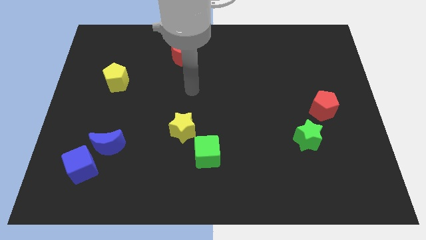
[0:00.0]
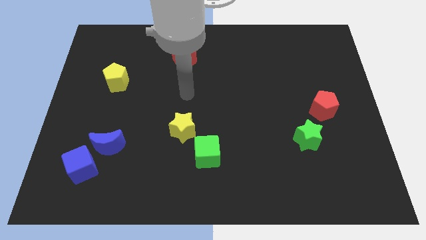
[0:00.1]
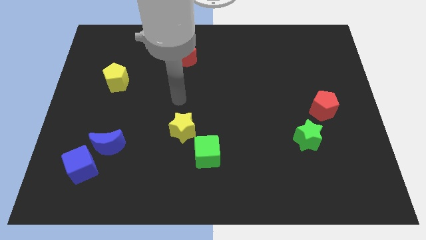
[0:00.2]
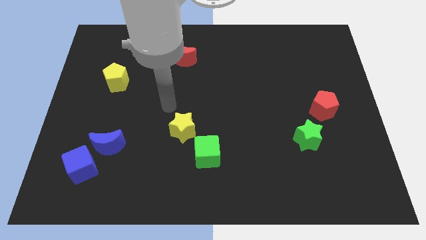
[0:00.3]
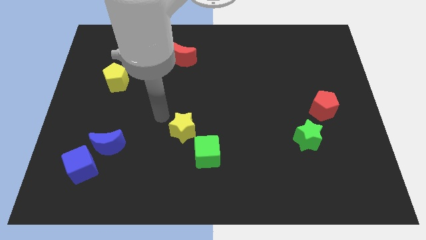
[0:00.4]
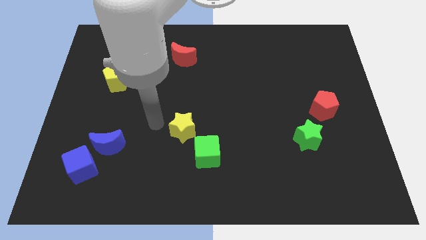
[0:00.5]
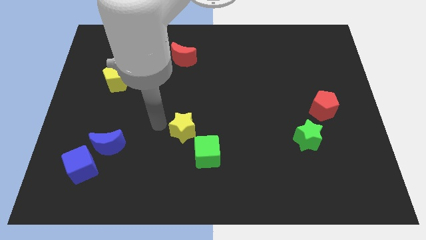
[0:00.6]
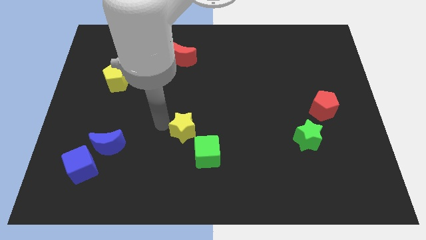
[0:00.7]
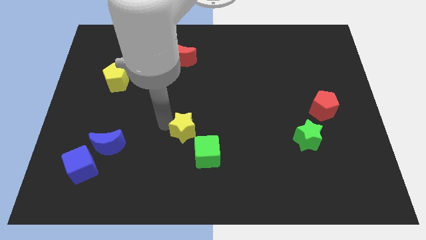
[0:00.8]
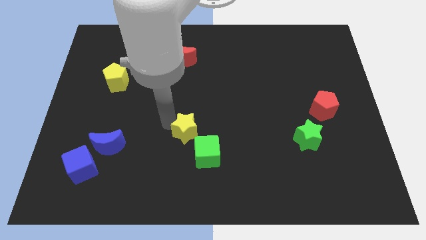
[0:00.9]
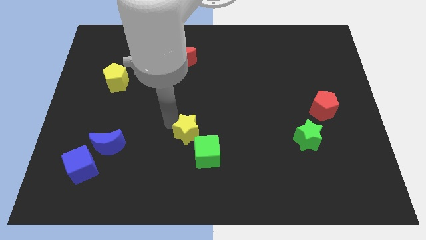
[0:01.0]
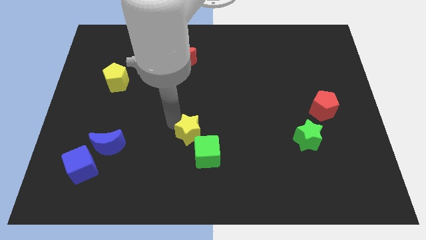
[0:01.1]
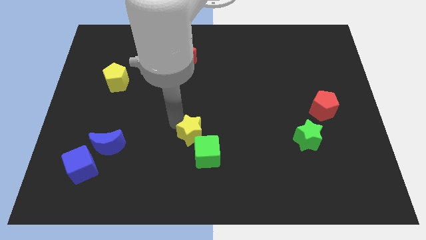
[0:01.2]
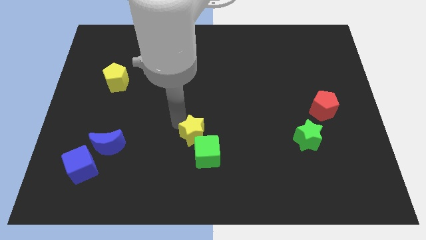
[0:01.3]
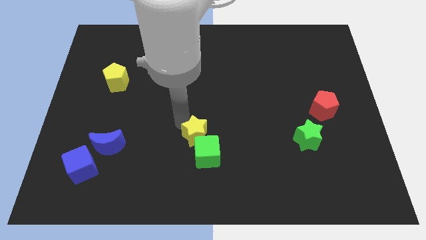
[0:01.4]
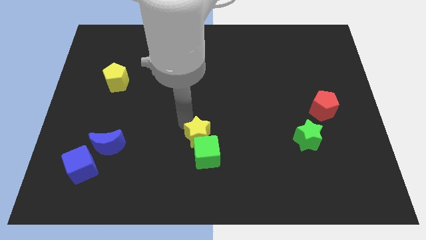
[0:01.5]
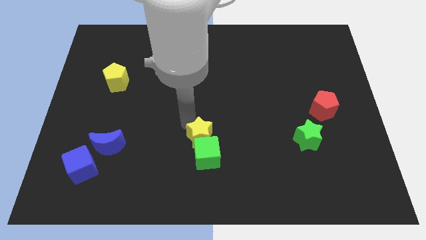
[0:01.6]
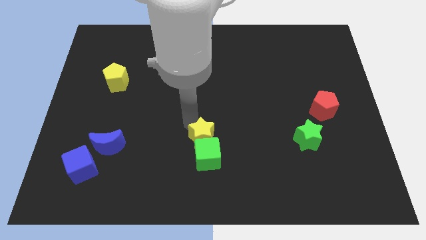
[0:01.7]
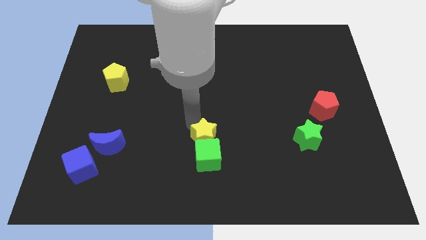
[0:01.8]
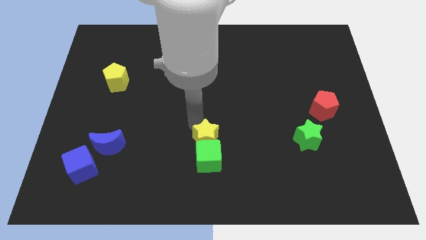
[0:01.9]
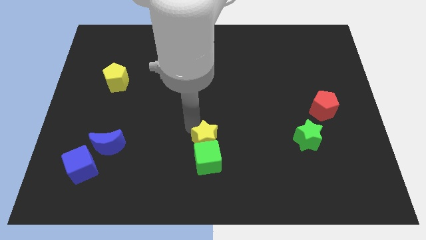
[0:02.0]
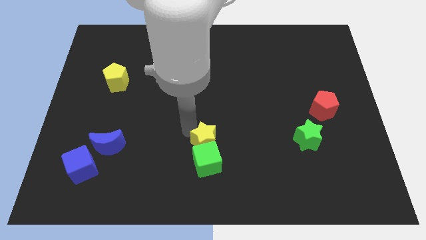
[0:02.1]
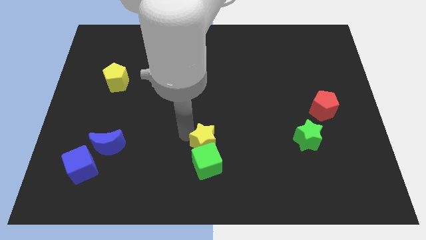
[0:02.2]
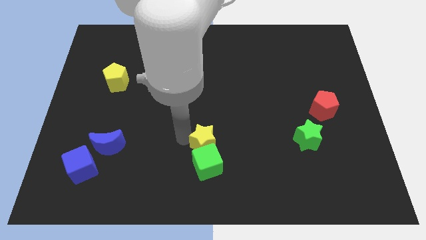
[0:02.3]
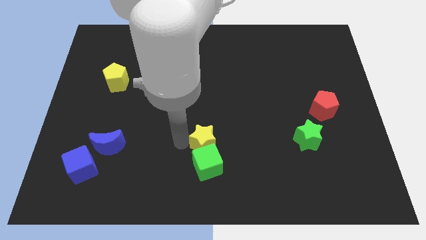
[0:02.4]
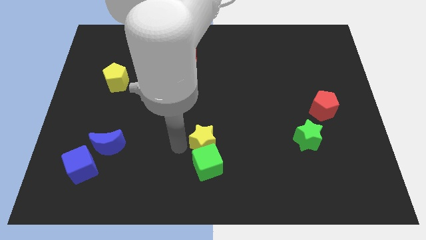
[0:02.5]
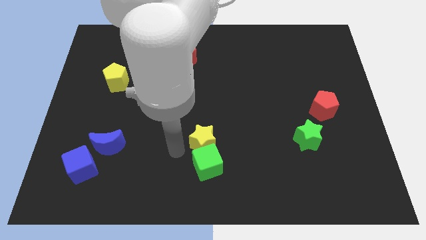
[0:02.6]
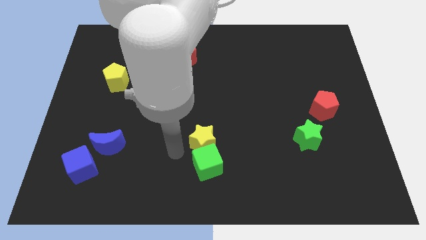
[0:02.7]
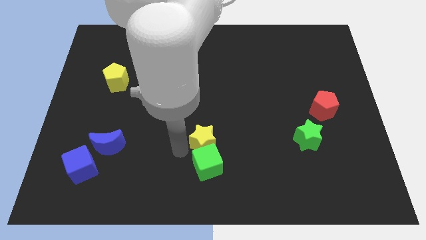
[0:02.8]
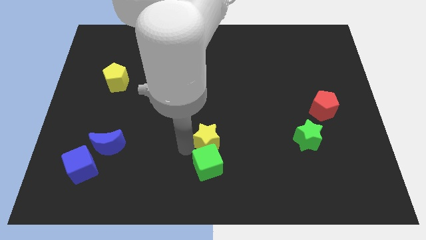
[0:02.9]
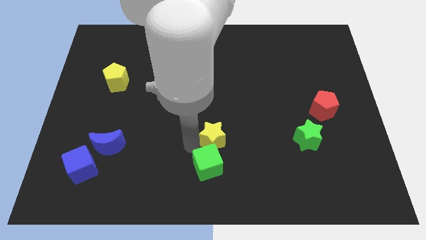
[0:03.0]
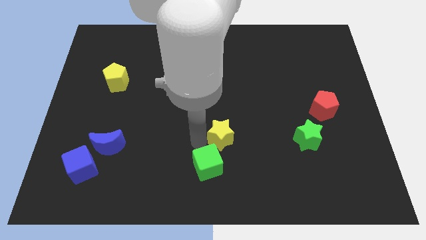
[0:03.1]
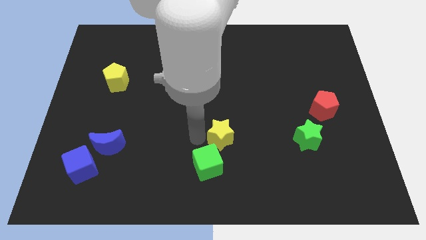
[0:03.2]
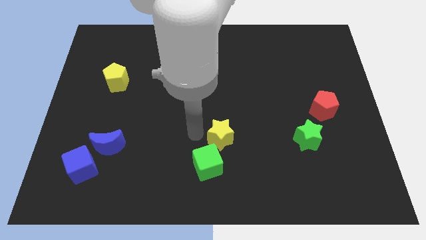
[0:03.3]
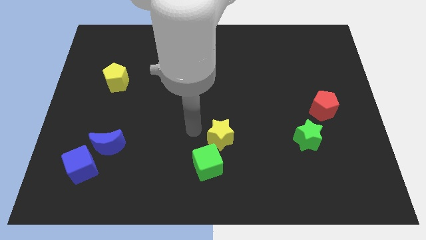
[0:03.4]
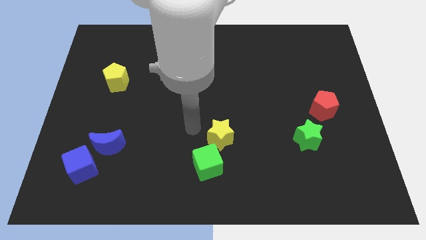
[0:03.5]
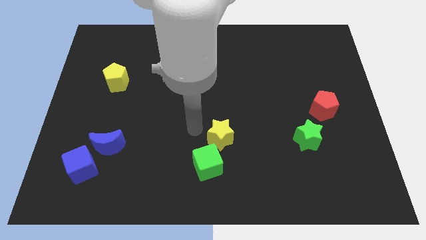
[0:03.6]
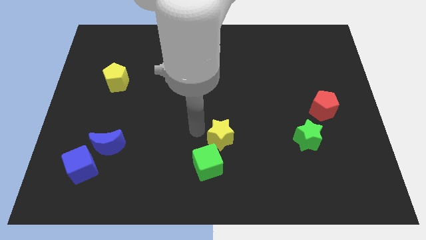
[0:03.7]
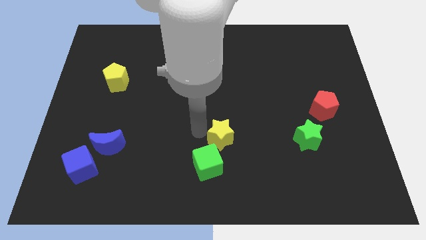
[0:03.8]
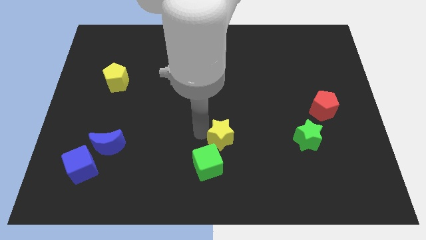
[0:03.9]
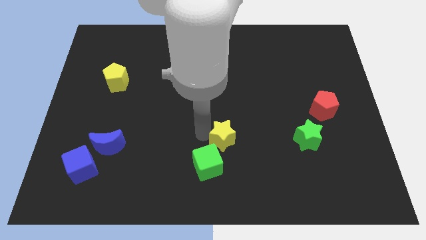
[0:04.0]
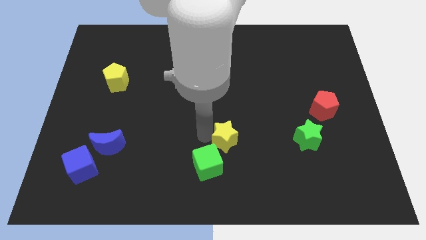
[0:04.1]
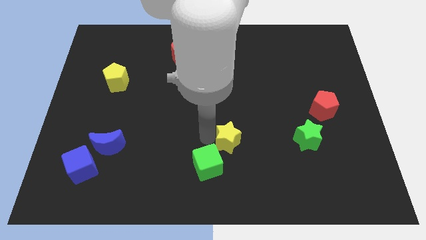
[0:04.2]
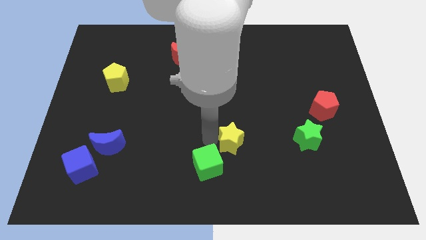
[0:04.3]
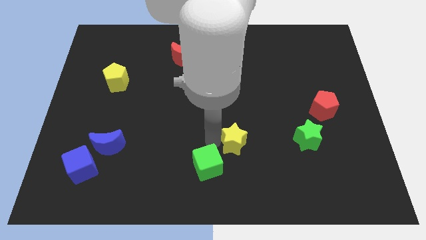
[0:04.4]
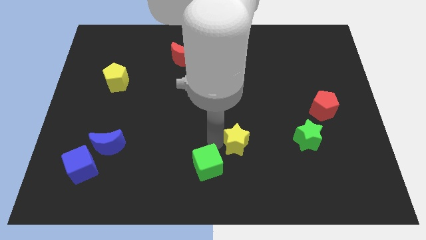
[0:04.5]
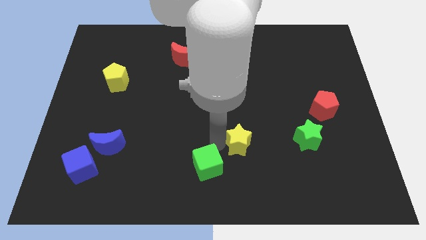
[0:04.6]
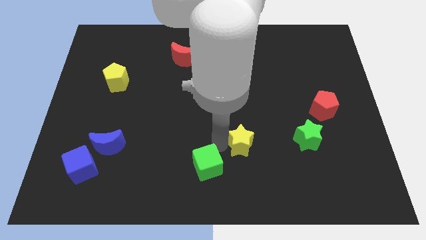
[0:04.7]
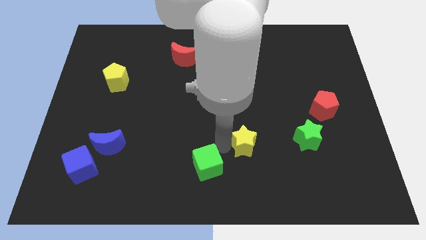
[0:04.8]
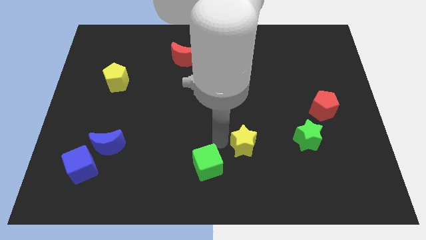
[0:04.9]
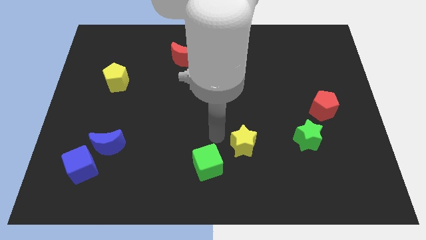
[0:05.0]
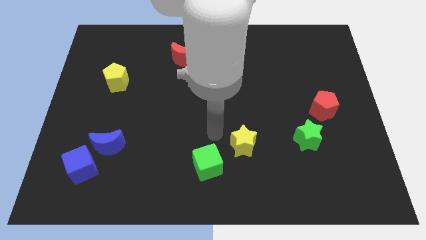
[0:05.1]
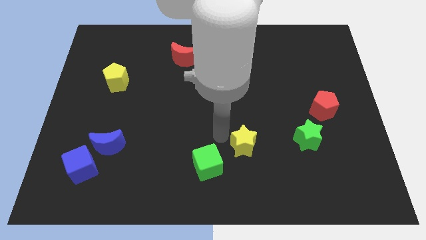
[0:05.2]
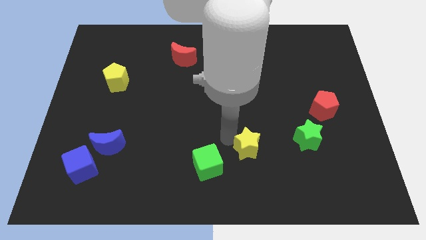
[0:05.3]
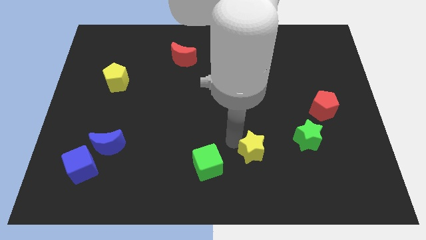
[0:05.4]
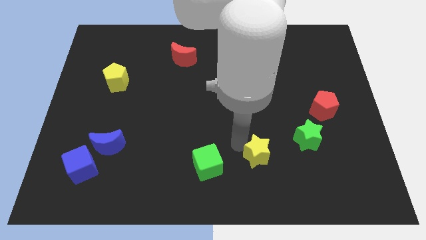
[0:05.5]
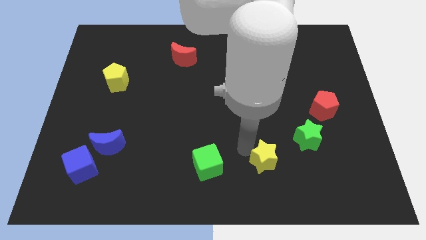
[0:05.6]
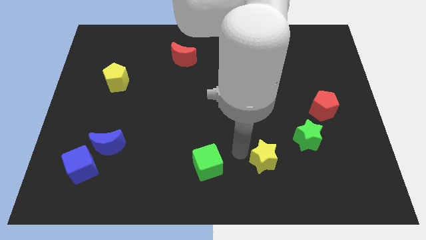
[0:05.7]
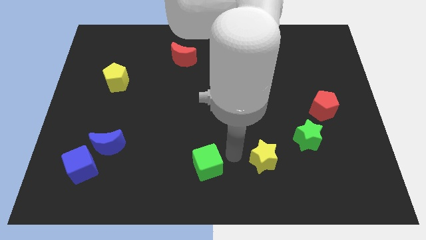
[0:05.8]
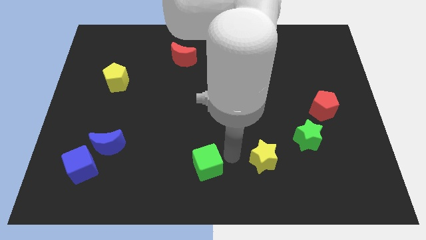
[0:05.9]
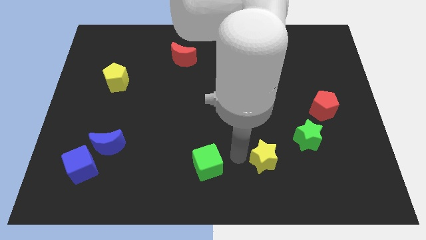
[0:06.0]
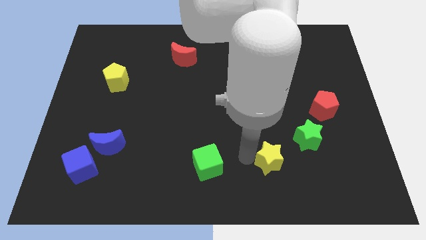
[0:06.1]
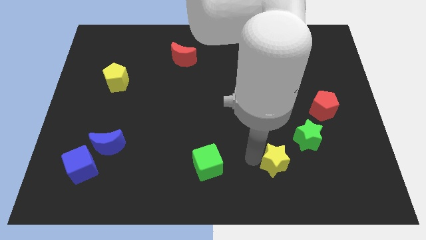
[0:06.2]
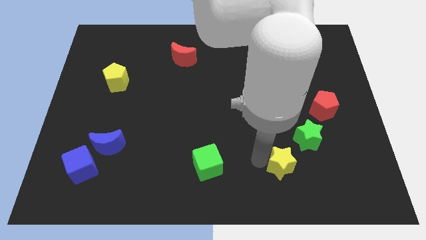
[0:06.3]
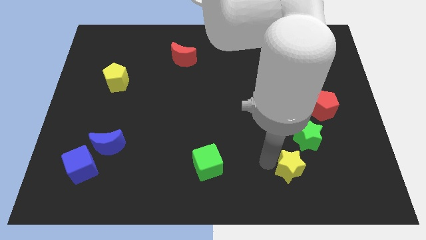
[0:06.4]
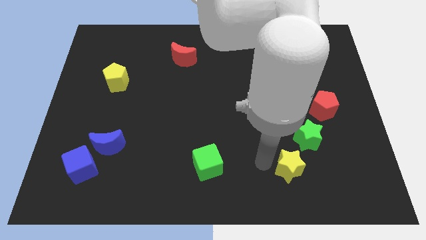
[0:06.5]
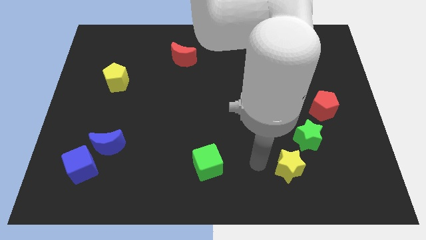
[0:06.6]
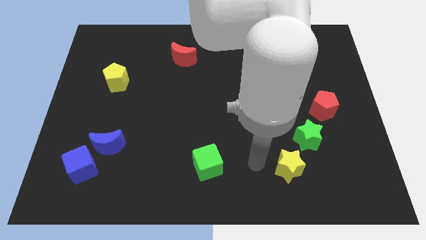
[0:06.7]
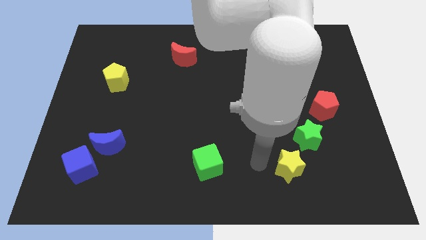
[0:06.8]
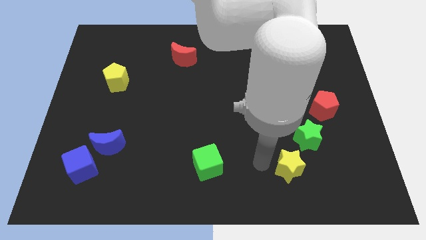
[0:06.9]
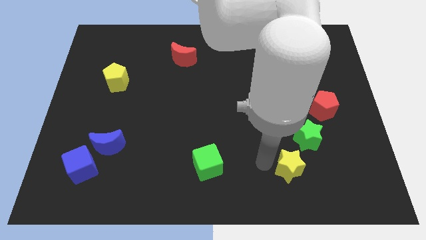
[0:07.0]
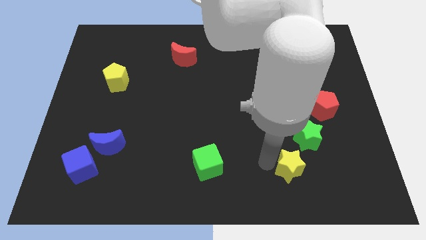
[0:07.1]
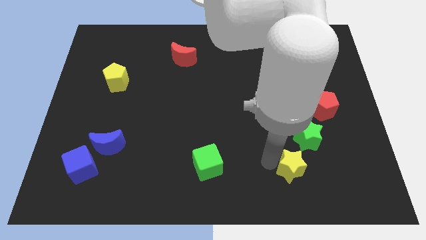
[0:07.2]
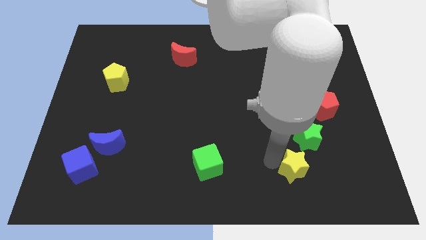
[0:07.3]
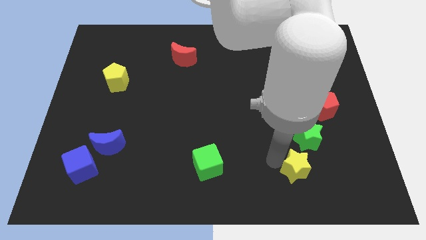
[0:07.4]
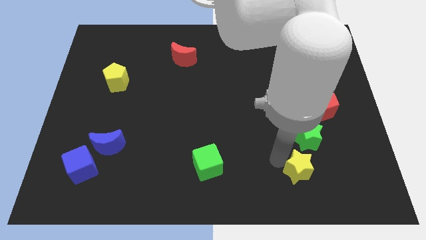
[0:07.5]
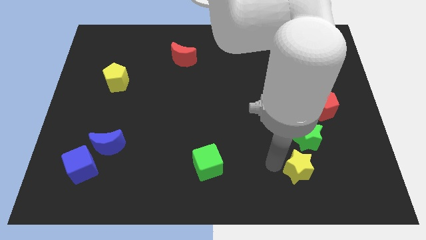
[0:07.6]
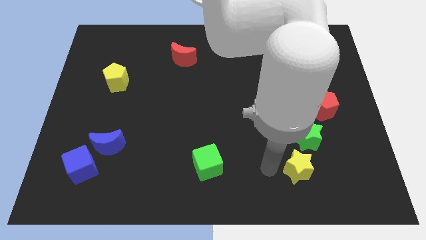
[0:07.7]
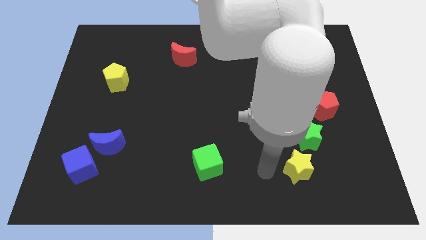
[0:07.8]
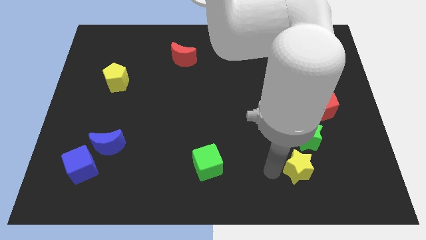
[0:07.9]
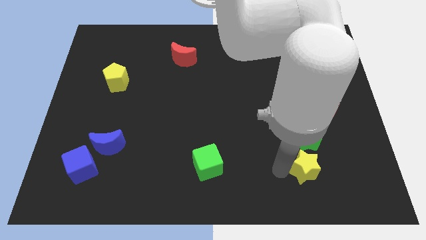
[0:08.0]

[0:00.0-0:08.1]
slide the yellow star to the right
